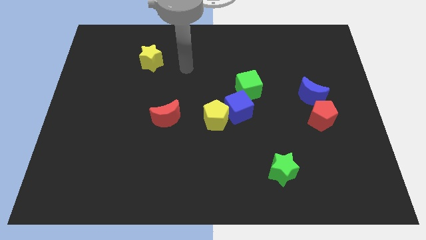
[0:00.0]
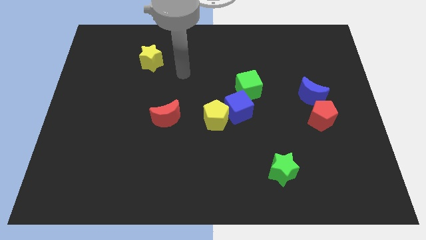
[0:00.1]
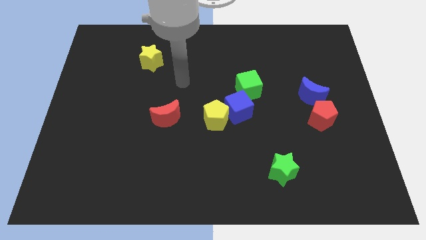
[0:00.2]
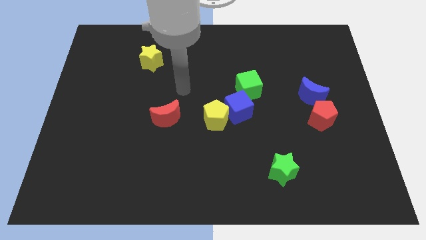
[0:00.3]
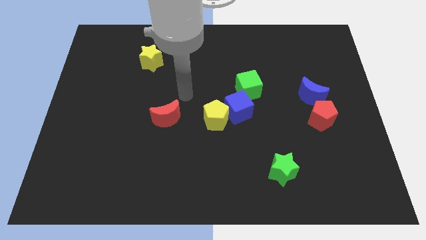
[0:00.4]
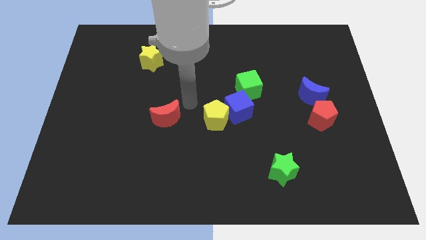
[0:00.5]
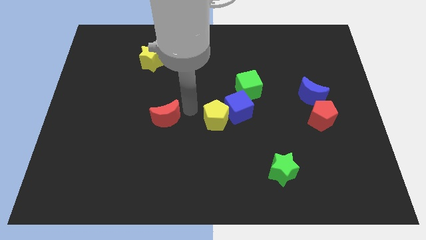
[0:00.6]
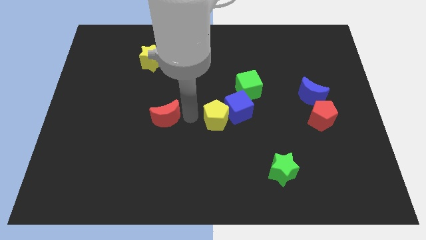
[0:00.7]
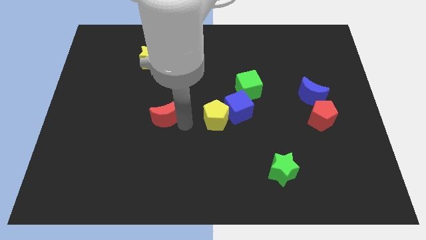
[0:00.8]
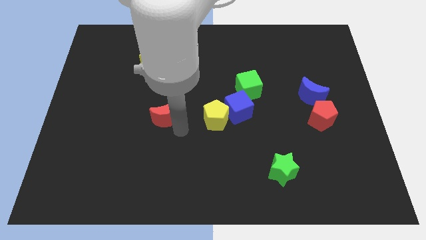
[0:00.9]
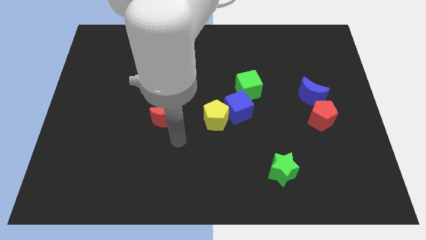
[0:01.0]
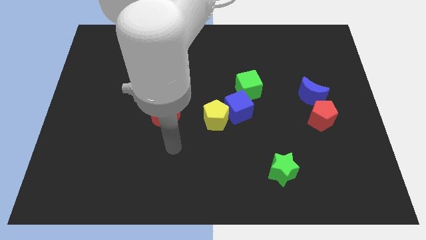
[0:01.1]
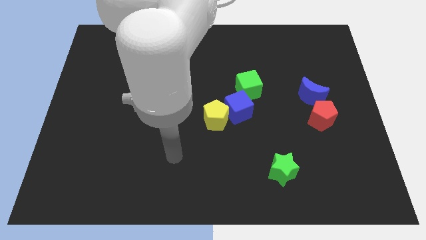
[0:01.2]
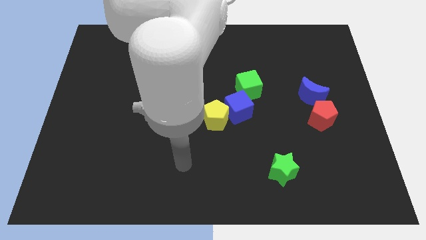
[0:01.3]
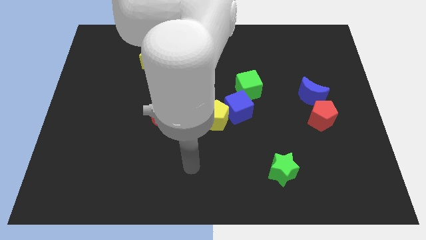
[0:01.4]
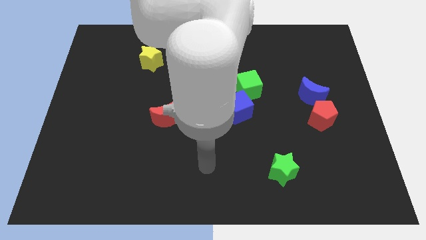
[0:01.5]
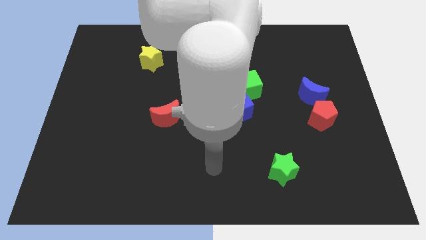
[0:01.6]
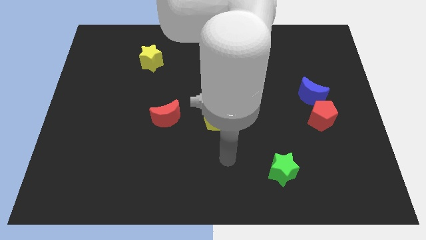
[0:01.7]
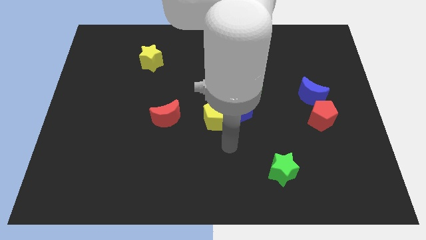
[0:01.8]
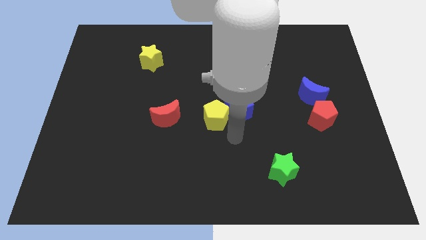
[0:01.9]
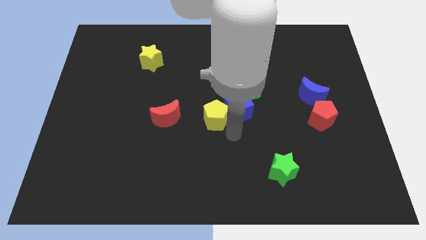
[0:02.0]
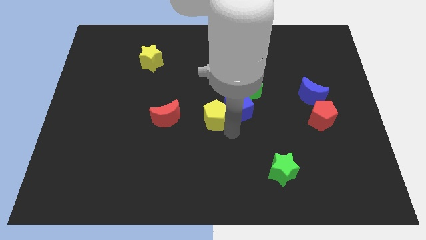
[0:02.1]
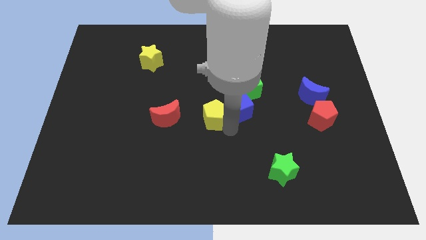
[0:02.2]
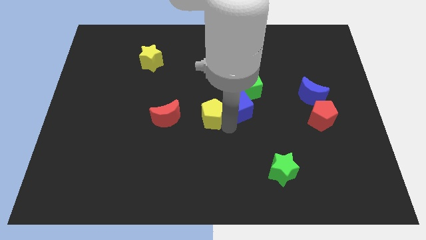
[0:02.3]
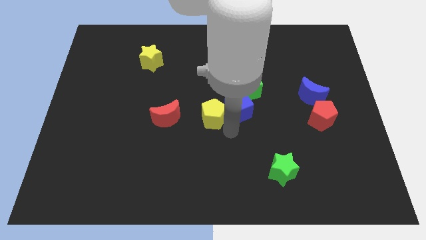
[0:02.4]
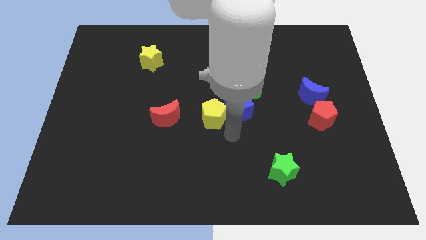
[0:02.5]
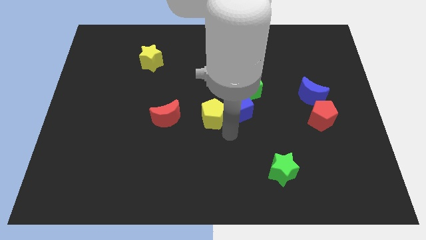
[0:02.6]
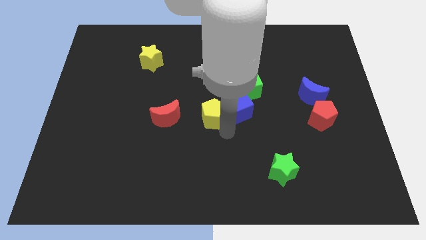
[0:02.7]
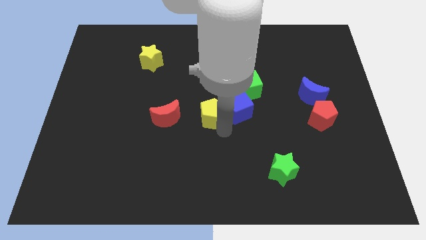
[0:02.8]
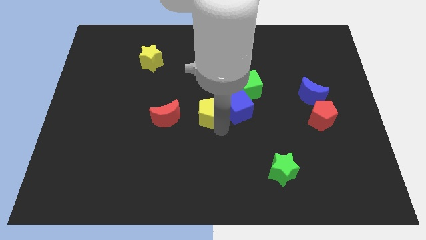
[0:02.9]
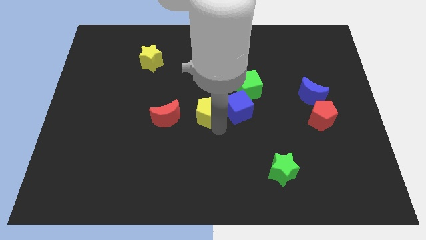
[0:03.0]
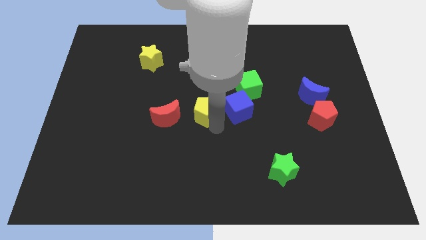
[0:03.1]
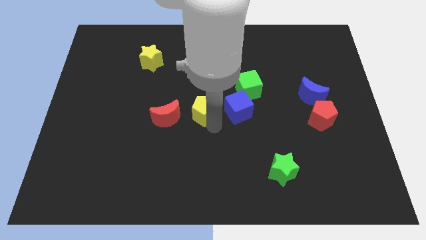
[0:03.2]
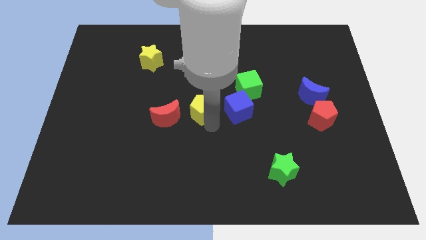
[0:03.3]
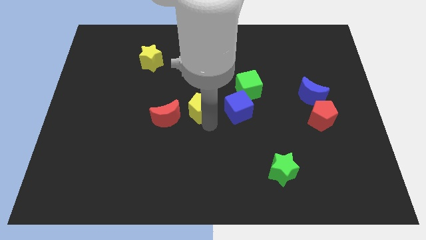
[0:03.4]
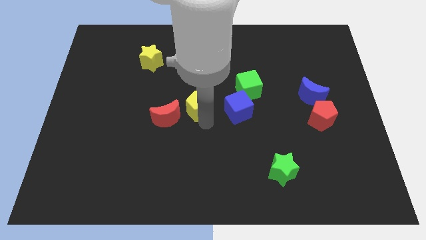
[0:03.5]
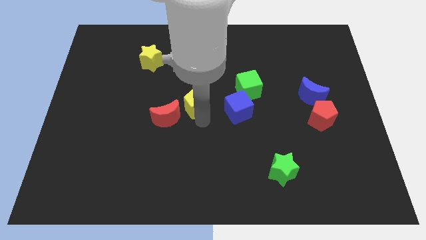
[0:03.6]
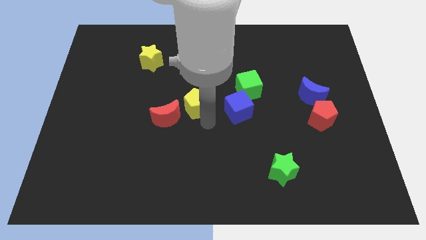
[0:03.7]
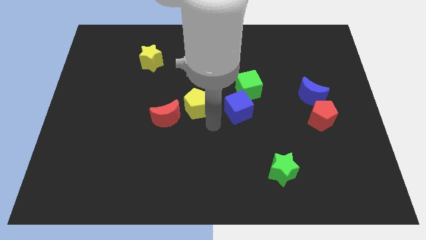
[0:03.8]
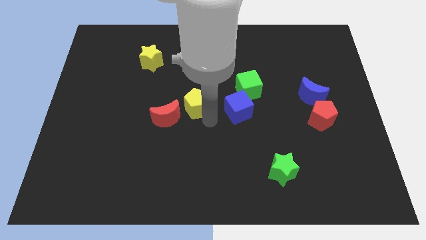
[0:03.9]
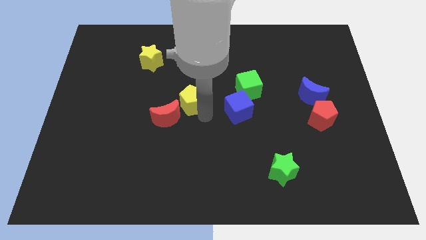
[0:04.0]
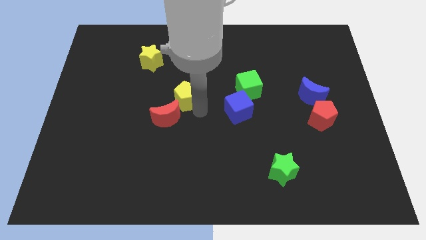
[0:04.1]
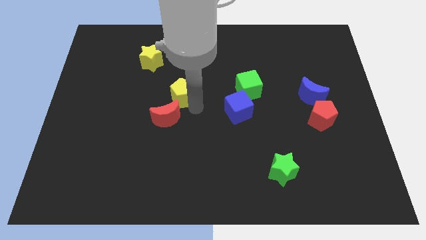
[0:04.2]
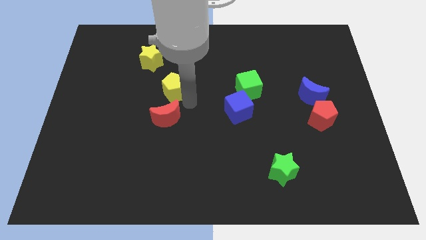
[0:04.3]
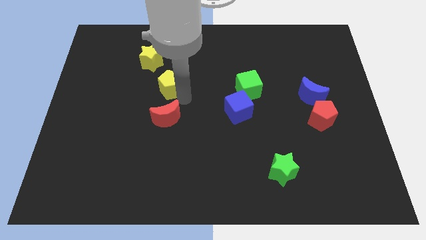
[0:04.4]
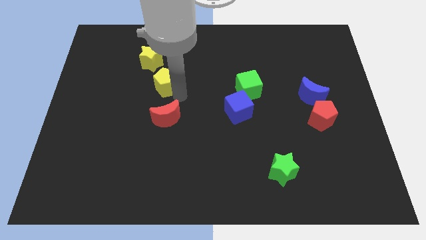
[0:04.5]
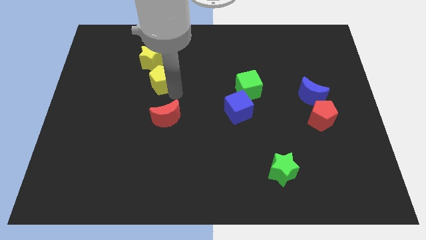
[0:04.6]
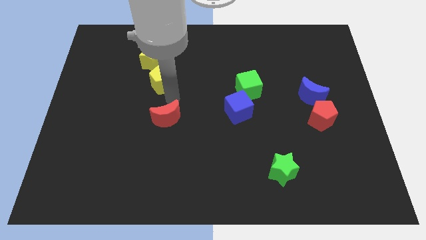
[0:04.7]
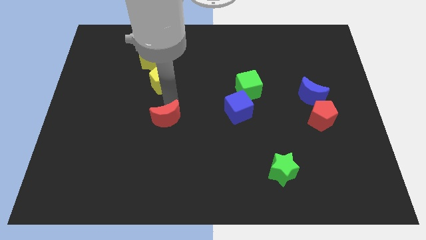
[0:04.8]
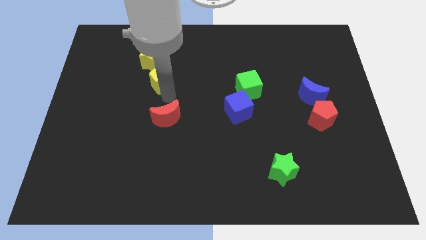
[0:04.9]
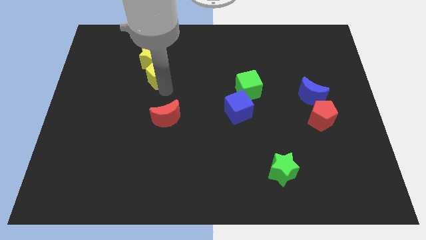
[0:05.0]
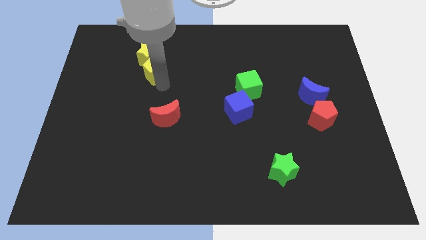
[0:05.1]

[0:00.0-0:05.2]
move the yellow pentagon towards the yellow star

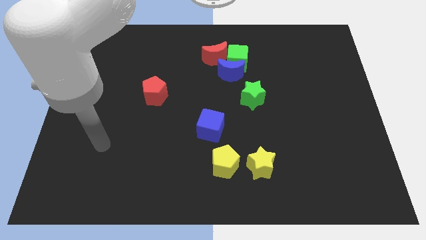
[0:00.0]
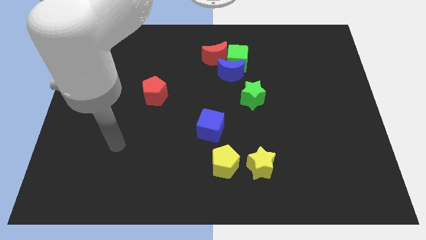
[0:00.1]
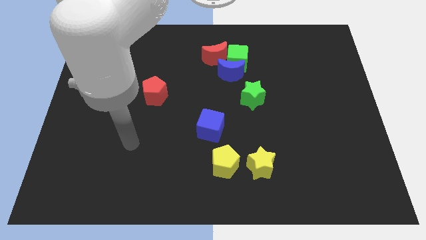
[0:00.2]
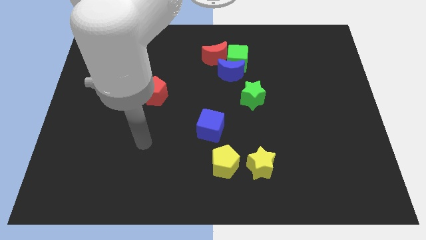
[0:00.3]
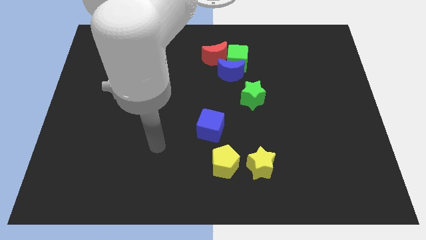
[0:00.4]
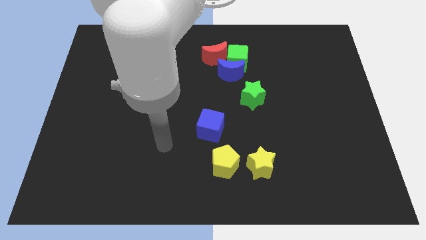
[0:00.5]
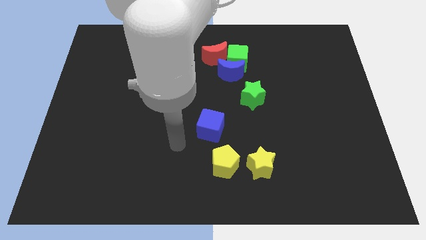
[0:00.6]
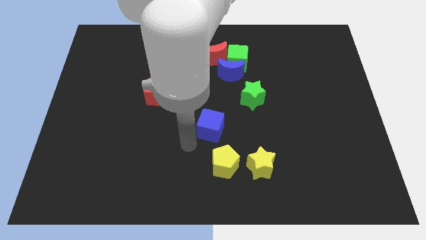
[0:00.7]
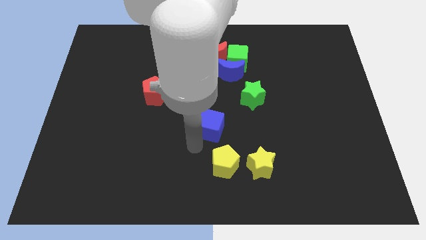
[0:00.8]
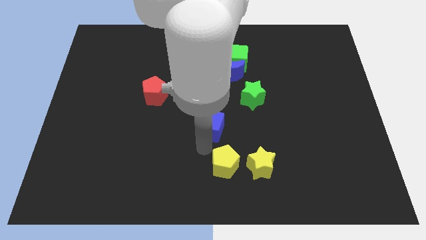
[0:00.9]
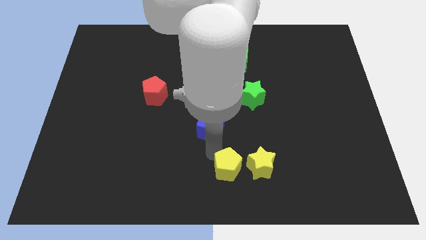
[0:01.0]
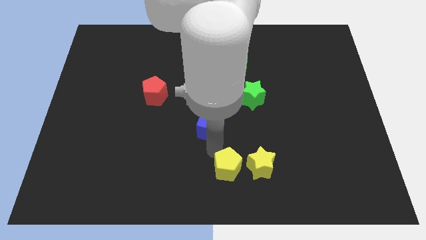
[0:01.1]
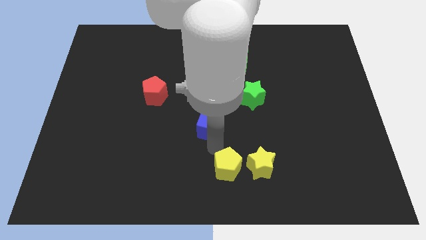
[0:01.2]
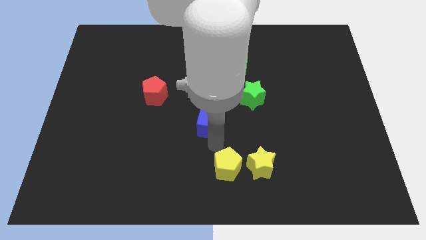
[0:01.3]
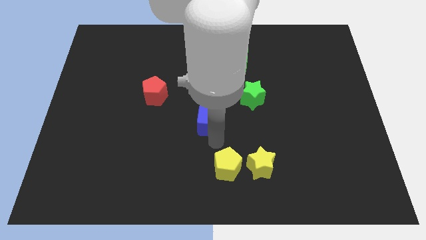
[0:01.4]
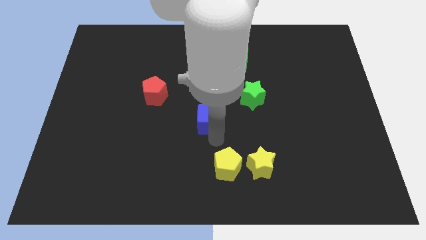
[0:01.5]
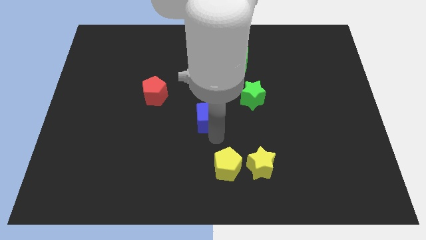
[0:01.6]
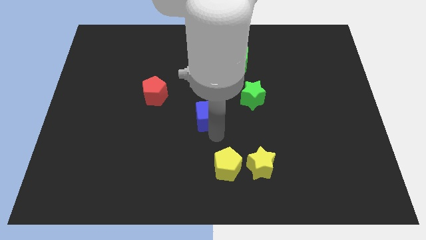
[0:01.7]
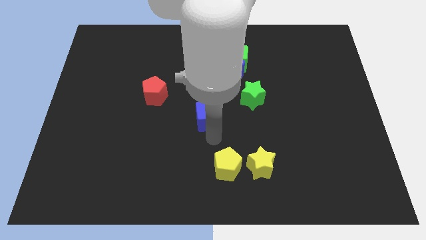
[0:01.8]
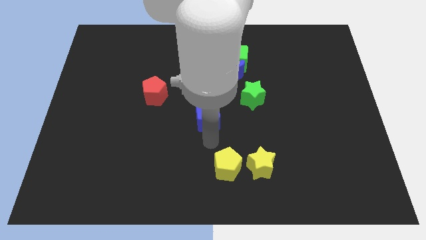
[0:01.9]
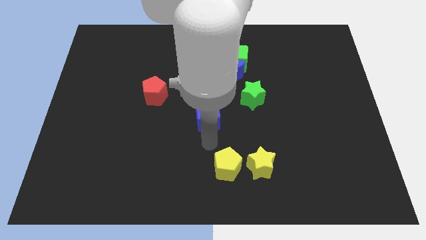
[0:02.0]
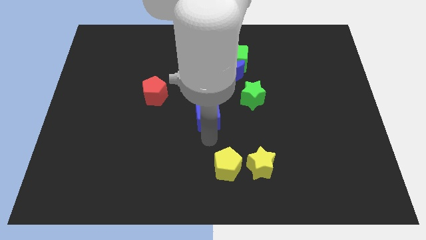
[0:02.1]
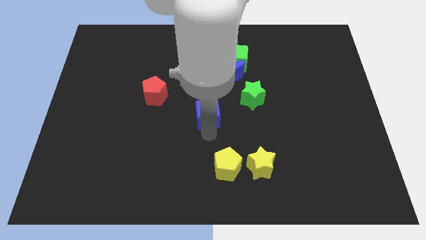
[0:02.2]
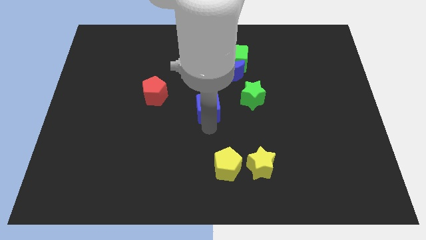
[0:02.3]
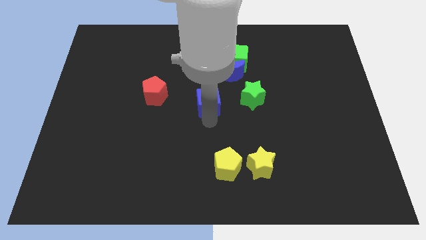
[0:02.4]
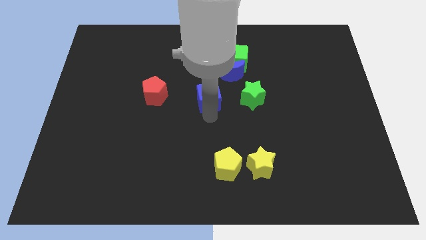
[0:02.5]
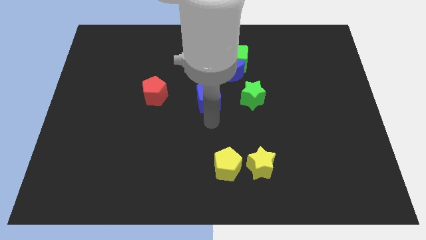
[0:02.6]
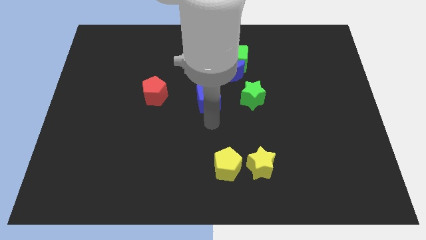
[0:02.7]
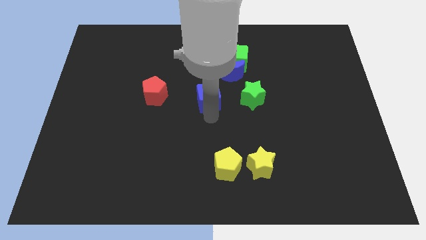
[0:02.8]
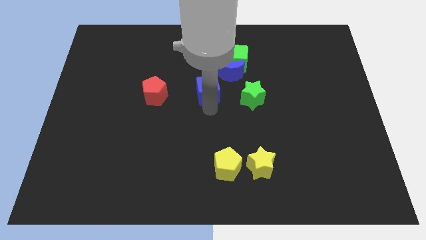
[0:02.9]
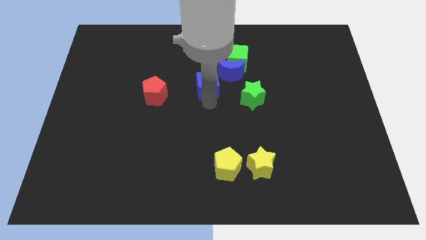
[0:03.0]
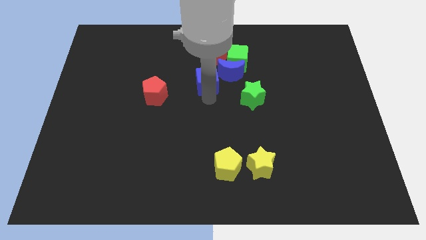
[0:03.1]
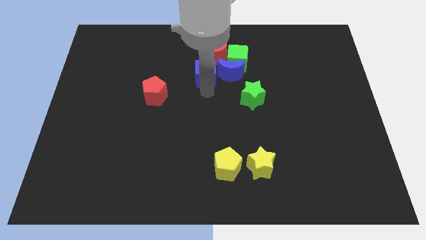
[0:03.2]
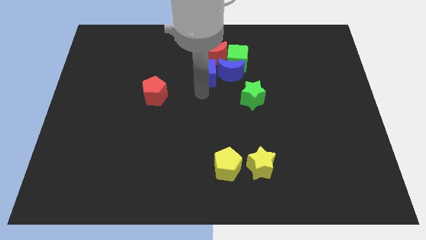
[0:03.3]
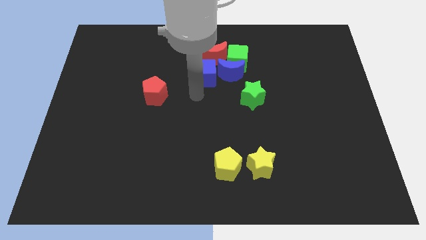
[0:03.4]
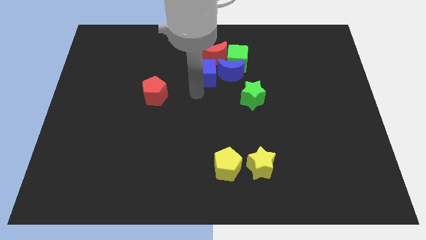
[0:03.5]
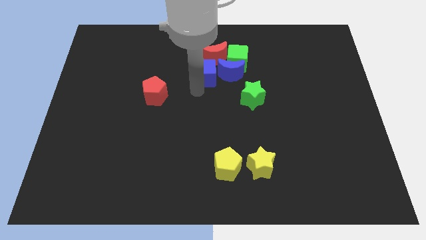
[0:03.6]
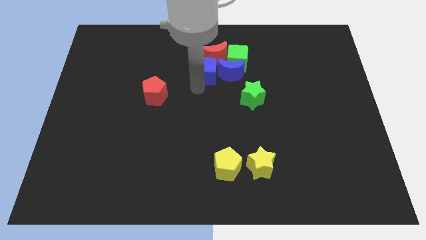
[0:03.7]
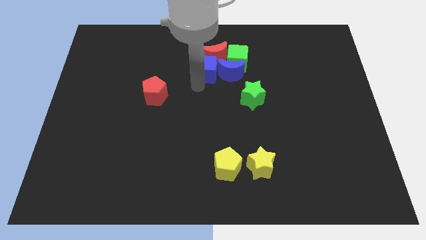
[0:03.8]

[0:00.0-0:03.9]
slide the blue cube to the red moon
